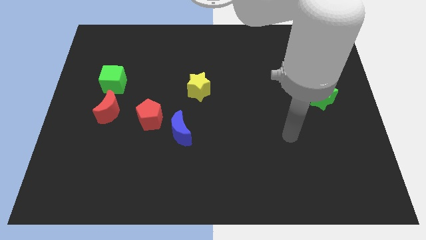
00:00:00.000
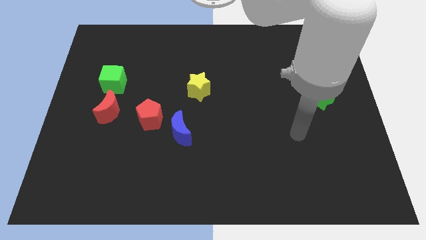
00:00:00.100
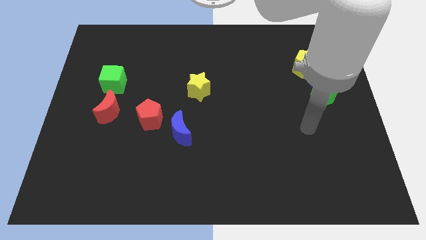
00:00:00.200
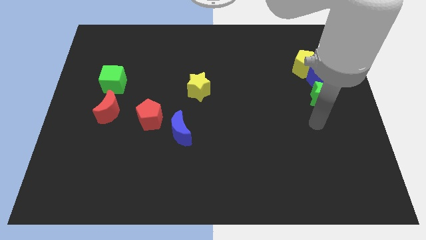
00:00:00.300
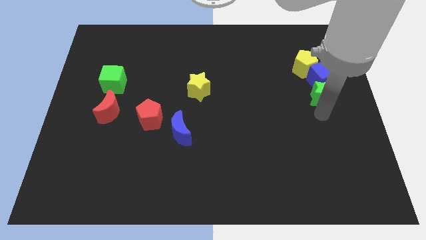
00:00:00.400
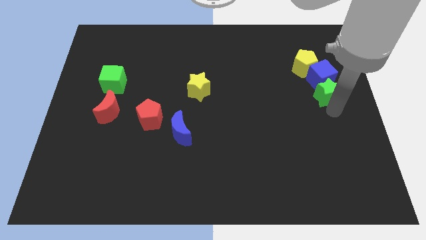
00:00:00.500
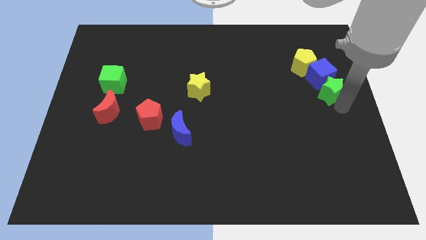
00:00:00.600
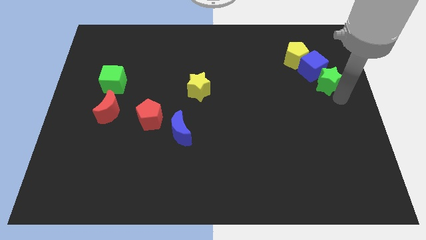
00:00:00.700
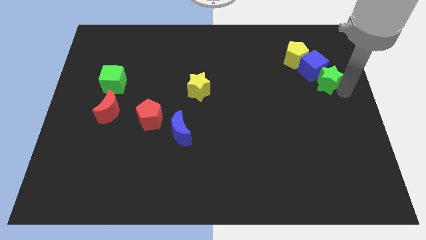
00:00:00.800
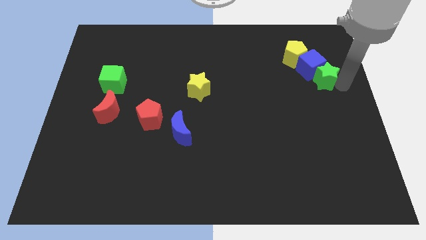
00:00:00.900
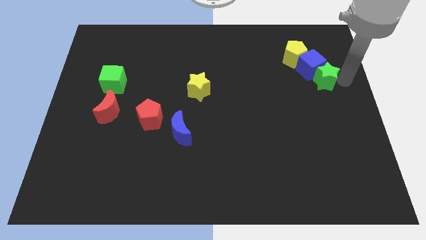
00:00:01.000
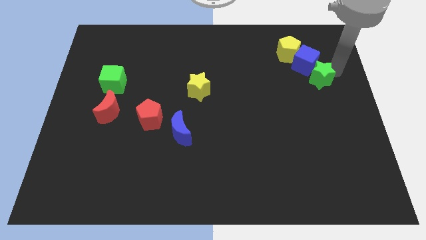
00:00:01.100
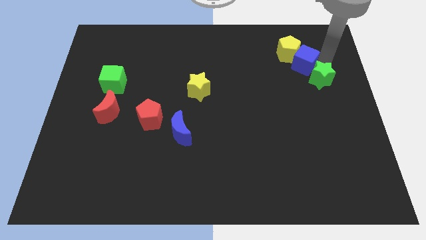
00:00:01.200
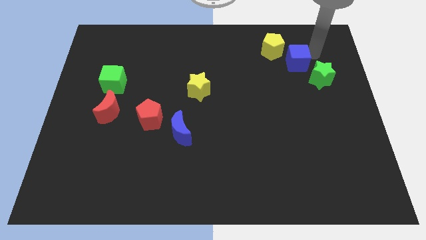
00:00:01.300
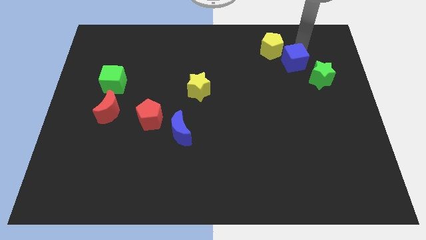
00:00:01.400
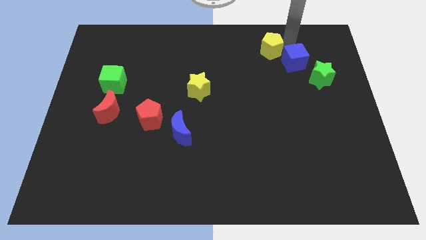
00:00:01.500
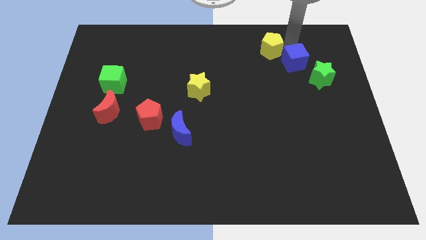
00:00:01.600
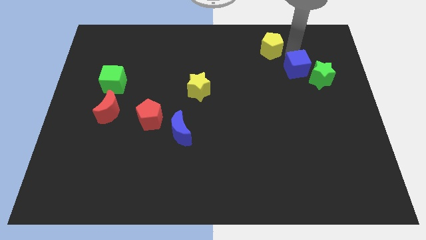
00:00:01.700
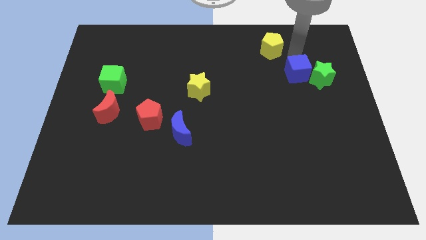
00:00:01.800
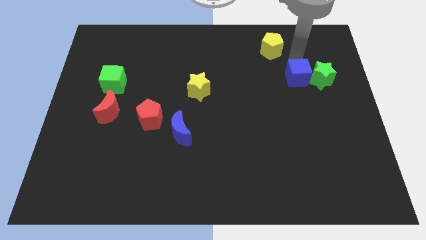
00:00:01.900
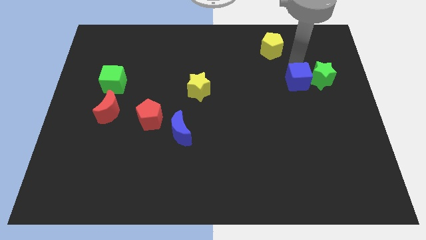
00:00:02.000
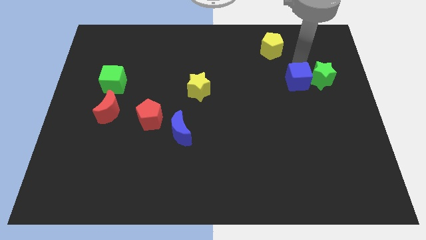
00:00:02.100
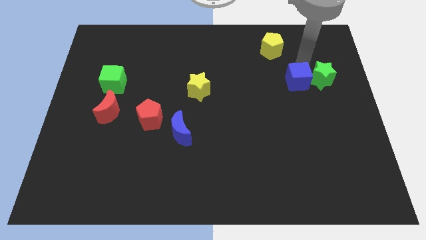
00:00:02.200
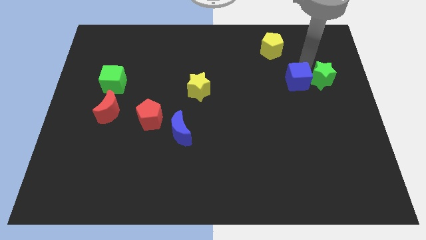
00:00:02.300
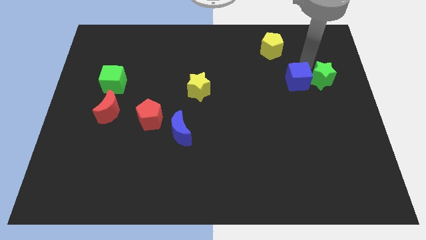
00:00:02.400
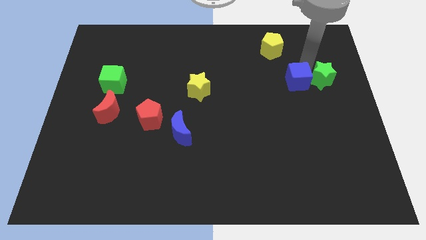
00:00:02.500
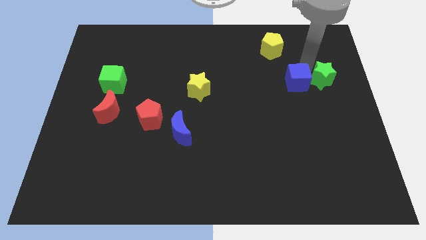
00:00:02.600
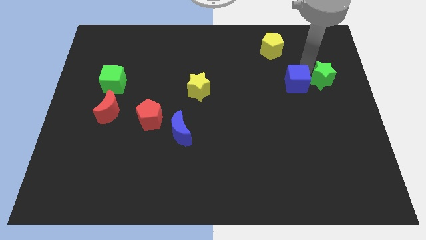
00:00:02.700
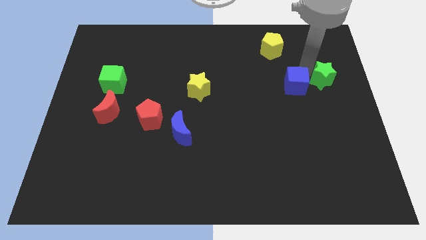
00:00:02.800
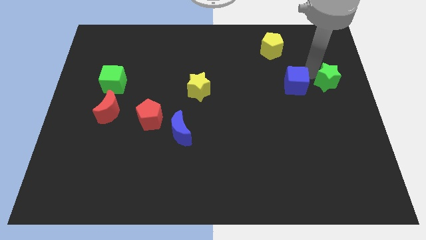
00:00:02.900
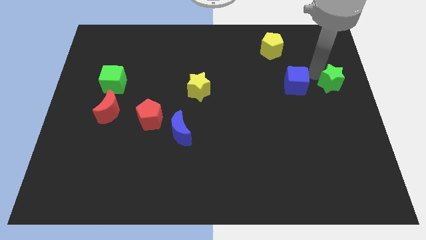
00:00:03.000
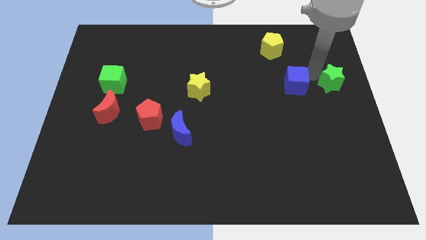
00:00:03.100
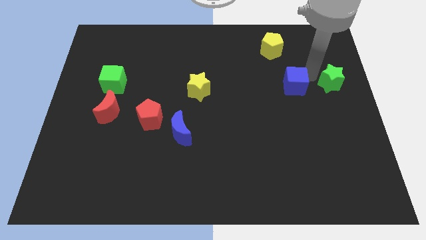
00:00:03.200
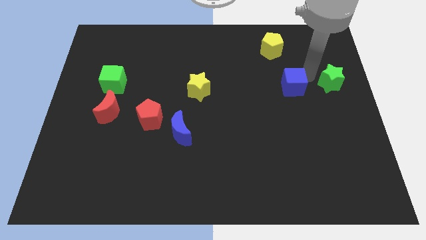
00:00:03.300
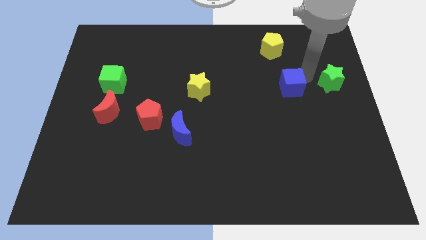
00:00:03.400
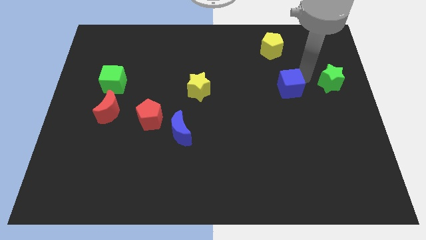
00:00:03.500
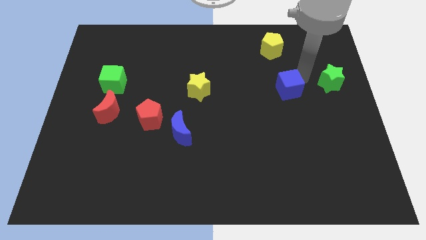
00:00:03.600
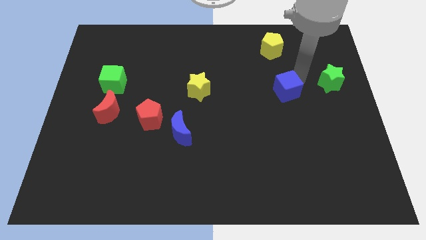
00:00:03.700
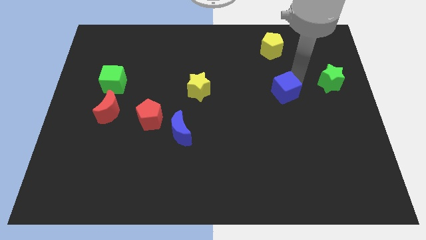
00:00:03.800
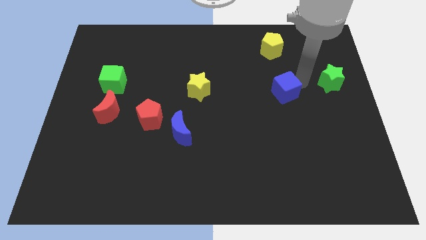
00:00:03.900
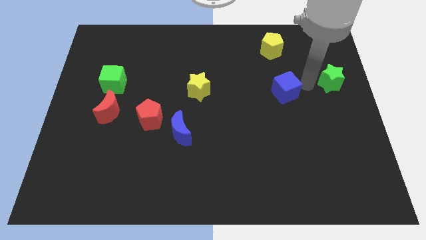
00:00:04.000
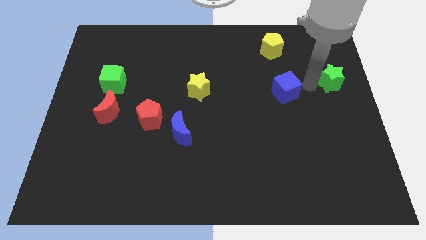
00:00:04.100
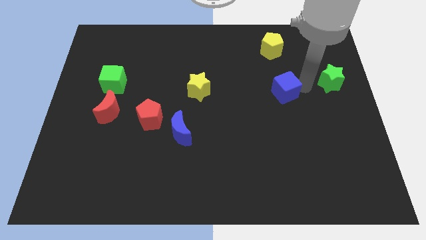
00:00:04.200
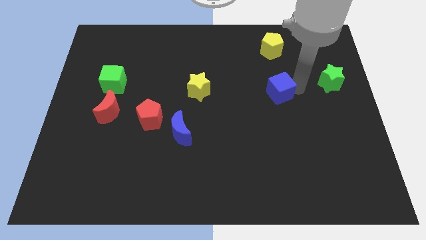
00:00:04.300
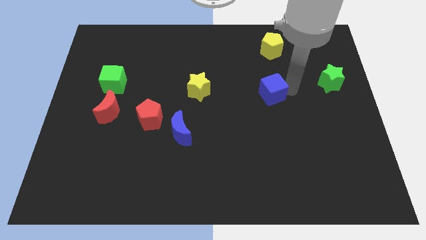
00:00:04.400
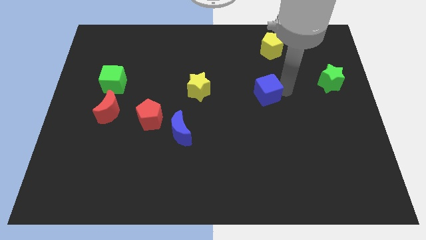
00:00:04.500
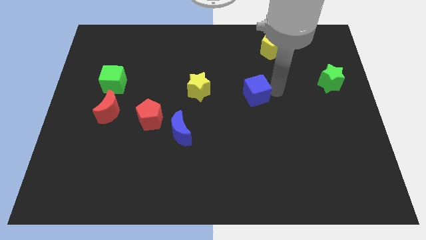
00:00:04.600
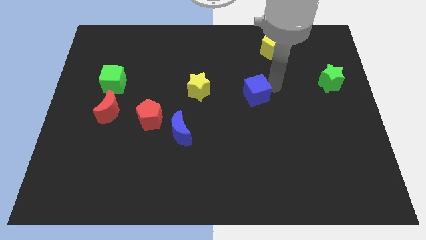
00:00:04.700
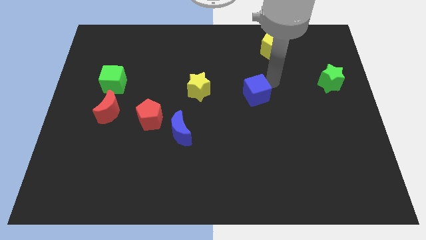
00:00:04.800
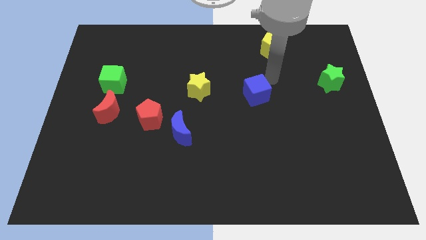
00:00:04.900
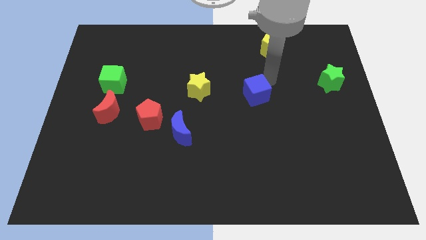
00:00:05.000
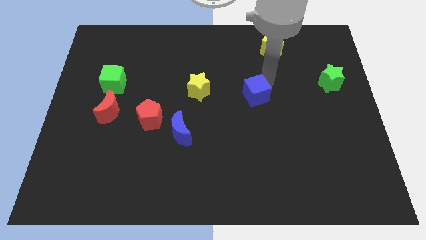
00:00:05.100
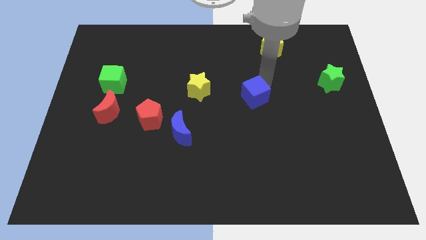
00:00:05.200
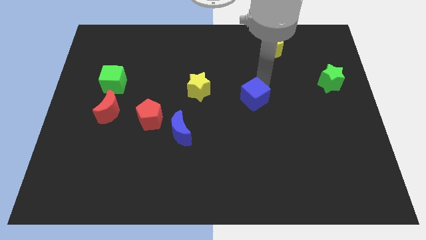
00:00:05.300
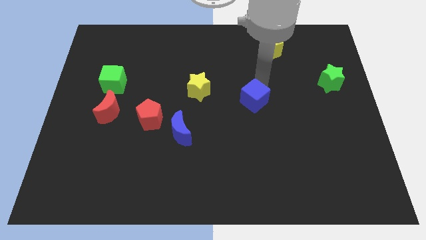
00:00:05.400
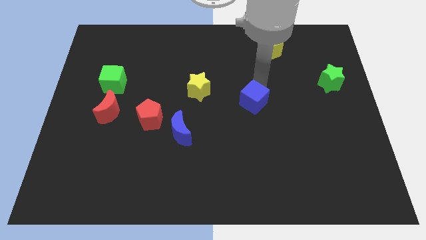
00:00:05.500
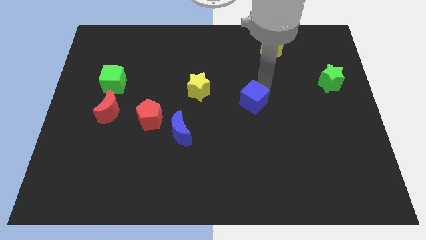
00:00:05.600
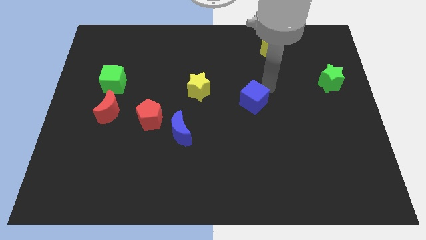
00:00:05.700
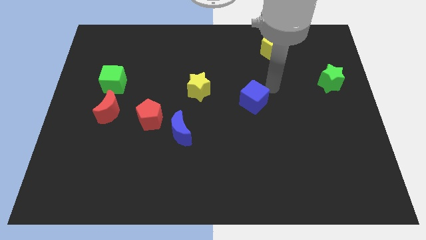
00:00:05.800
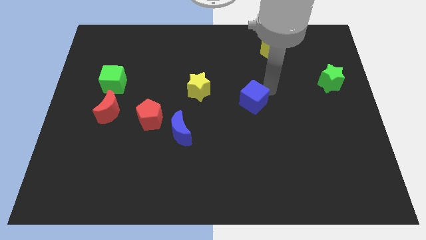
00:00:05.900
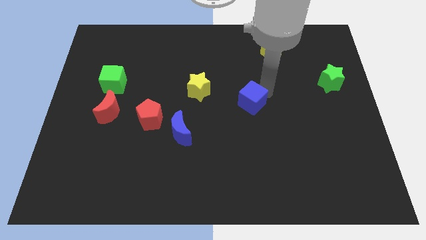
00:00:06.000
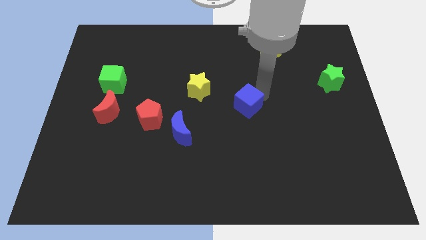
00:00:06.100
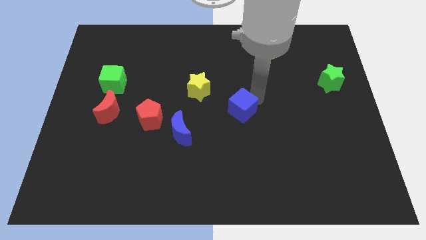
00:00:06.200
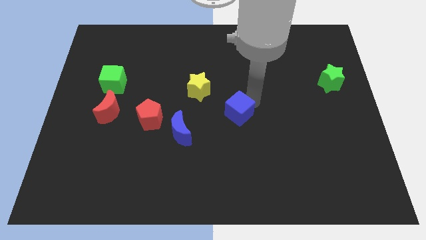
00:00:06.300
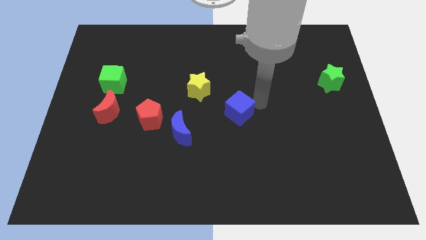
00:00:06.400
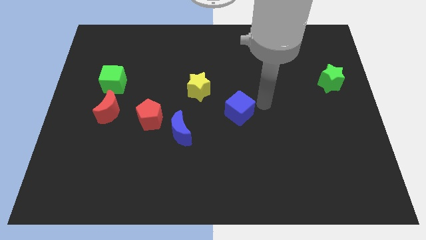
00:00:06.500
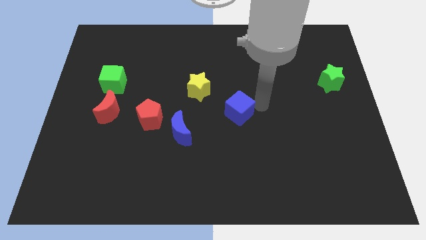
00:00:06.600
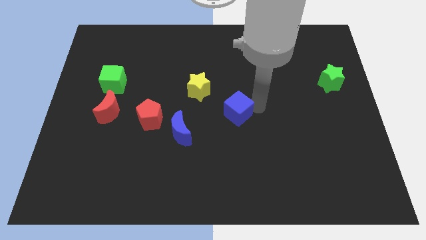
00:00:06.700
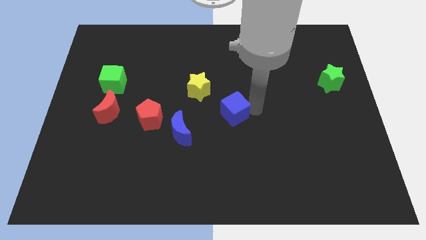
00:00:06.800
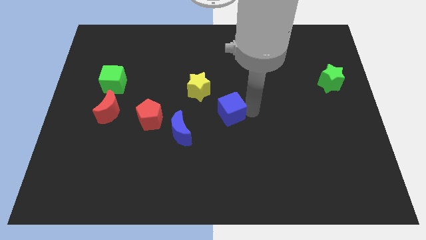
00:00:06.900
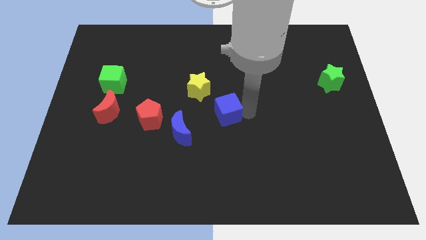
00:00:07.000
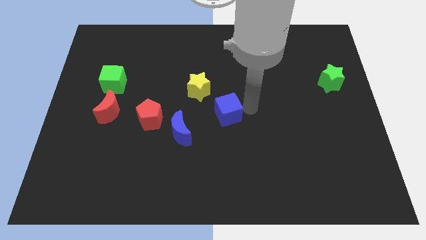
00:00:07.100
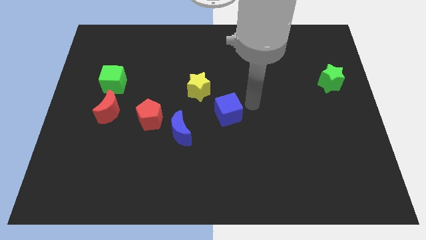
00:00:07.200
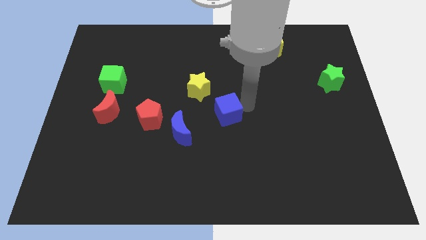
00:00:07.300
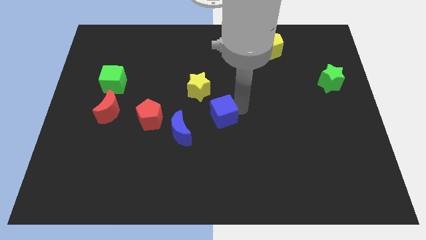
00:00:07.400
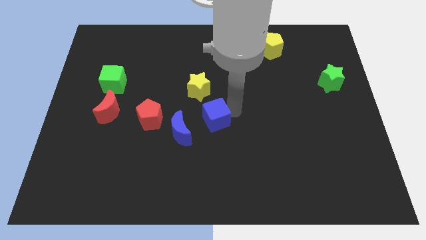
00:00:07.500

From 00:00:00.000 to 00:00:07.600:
push the blue cube to the bottom of the yellow star
